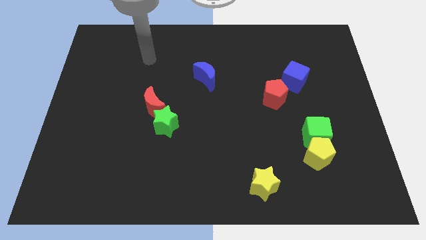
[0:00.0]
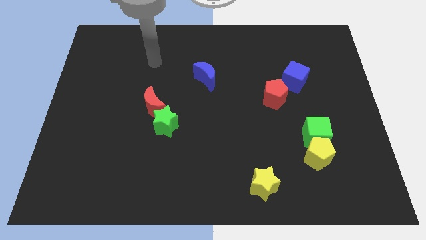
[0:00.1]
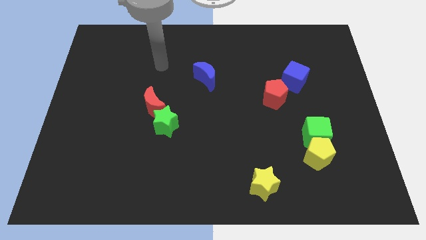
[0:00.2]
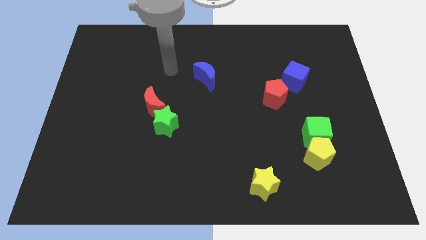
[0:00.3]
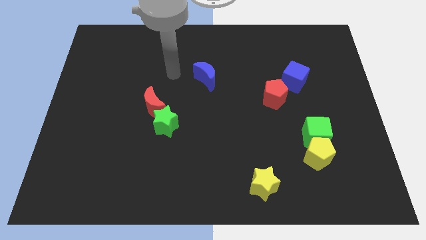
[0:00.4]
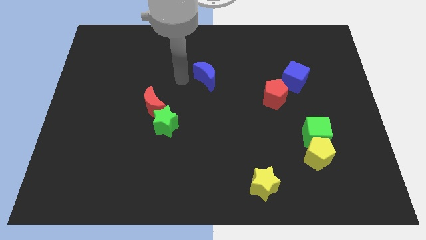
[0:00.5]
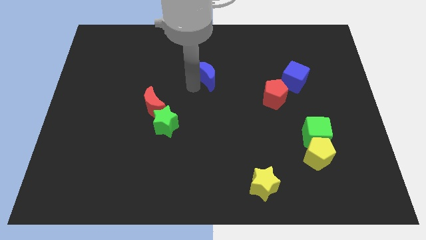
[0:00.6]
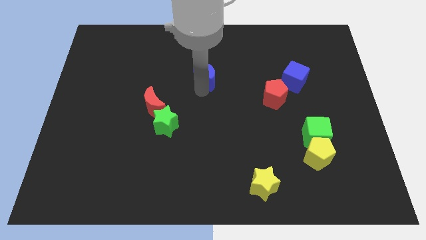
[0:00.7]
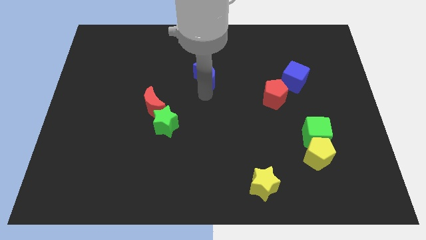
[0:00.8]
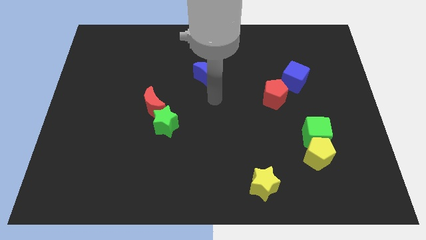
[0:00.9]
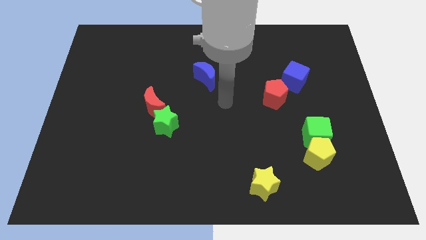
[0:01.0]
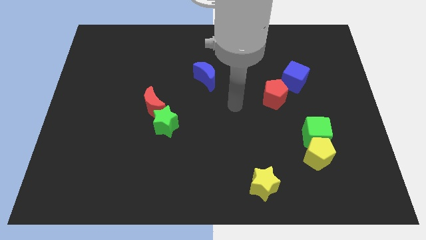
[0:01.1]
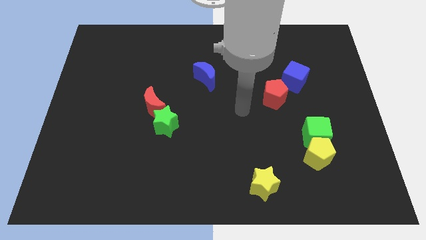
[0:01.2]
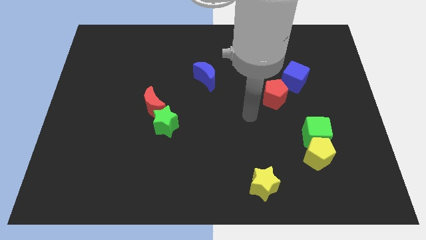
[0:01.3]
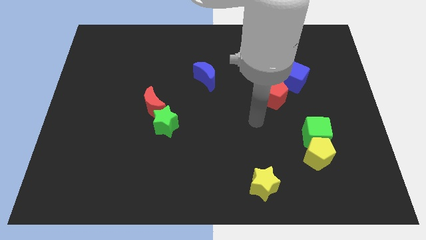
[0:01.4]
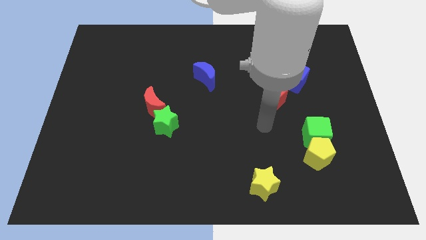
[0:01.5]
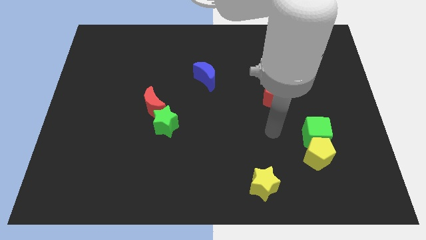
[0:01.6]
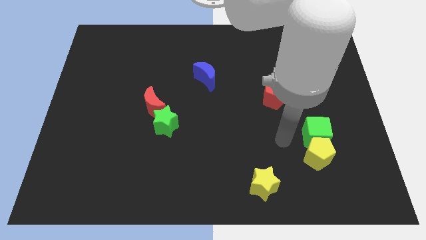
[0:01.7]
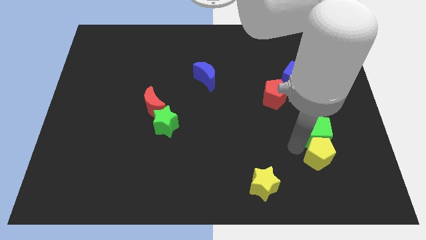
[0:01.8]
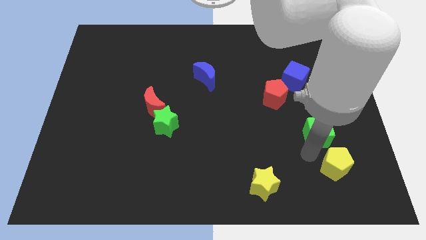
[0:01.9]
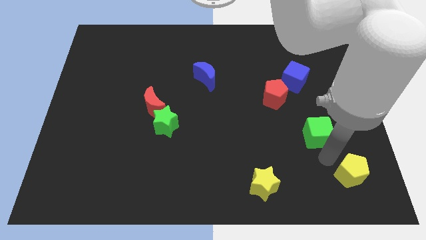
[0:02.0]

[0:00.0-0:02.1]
move the green cube away from the yellow pentagon

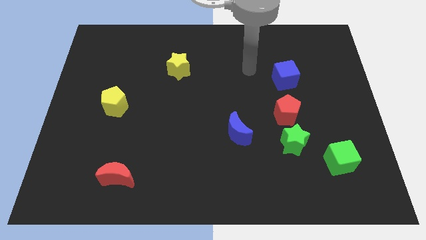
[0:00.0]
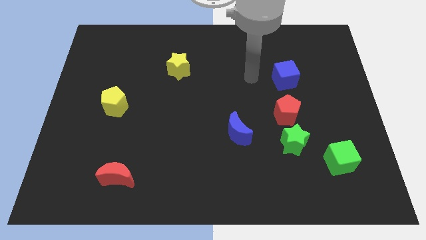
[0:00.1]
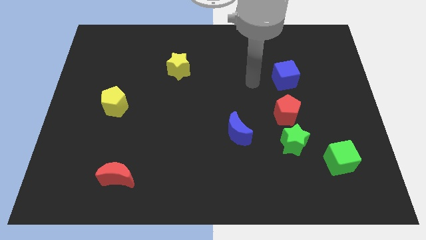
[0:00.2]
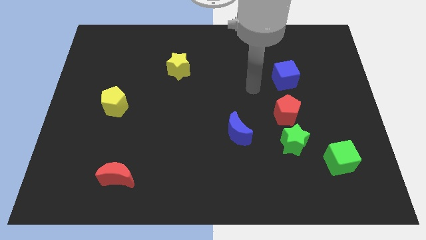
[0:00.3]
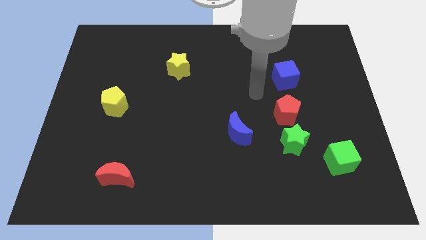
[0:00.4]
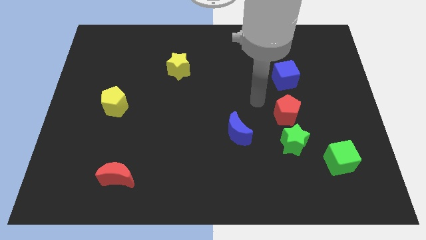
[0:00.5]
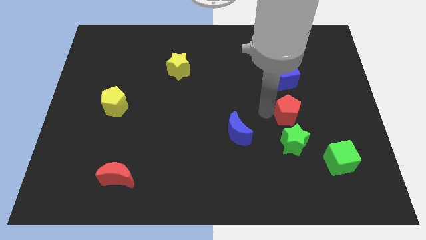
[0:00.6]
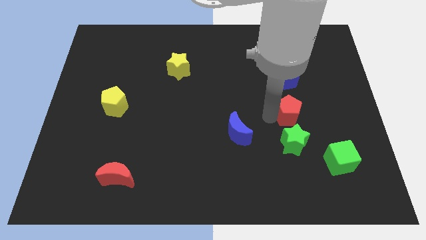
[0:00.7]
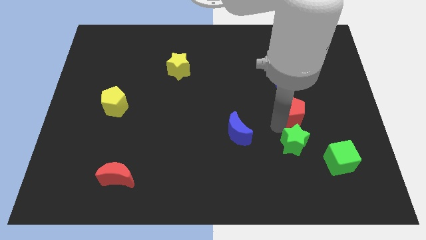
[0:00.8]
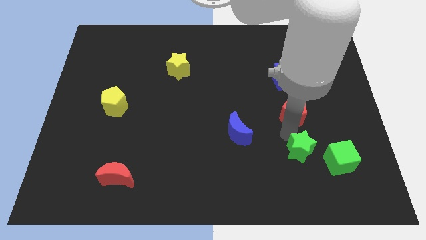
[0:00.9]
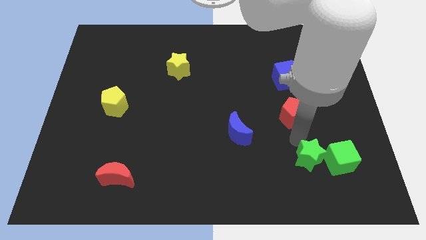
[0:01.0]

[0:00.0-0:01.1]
pull the red pentagon apart from the green star

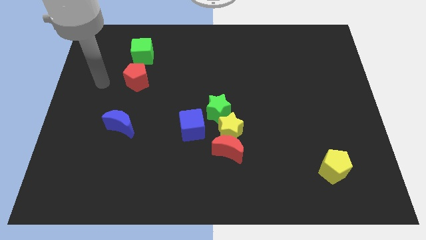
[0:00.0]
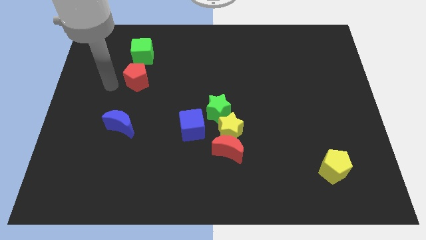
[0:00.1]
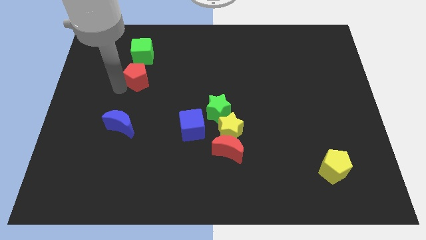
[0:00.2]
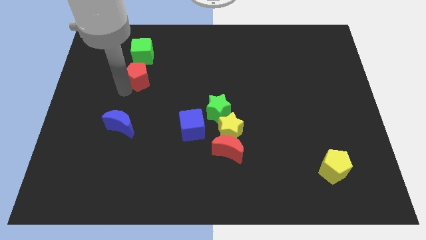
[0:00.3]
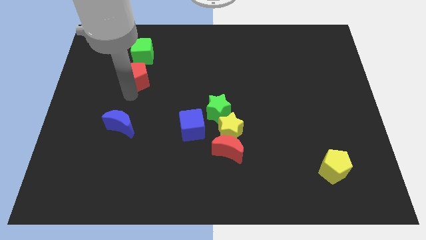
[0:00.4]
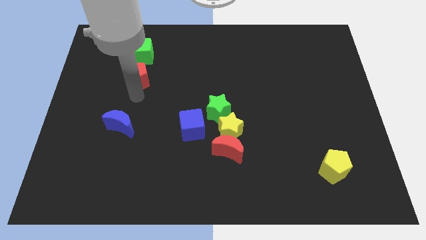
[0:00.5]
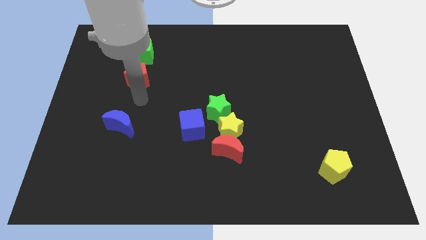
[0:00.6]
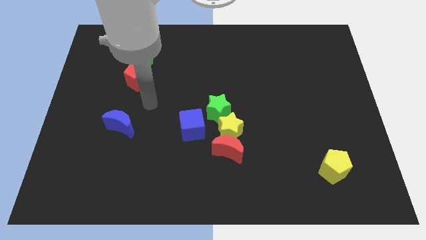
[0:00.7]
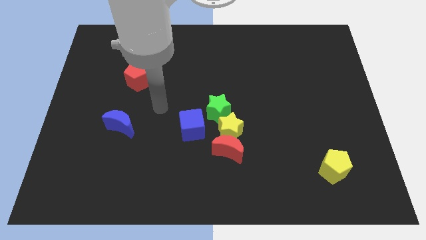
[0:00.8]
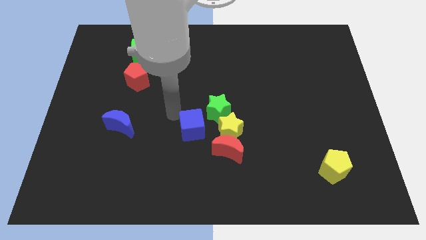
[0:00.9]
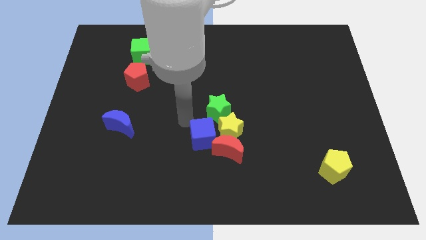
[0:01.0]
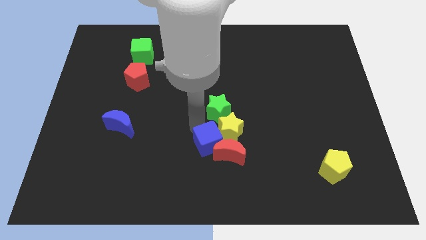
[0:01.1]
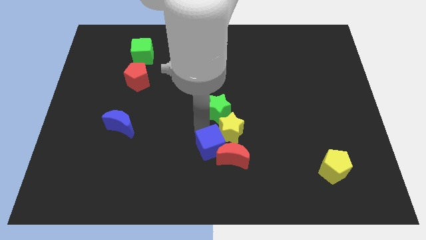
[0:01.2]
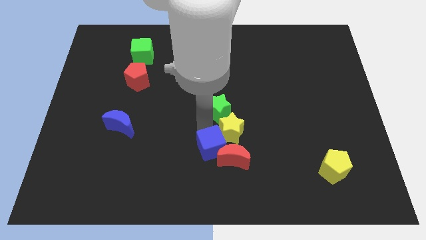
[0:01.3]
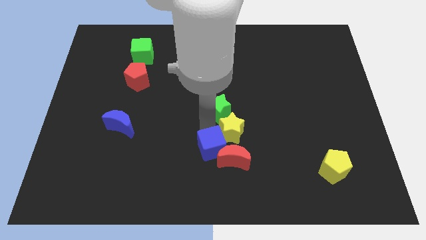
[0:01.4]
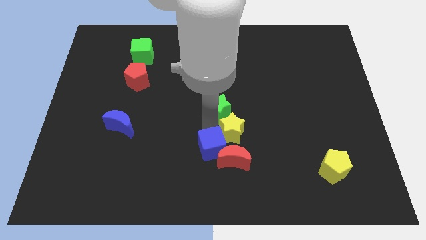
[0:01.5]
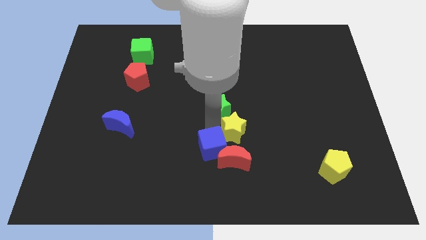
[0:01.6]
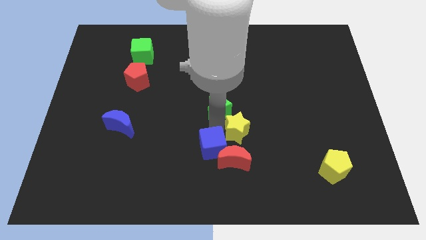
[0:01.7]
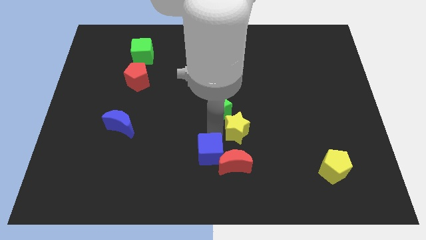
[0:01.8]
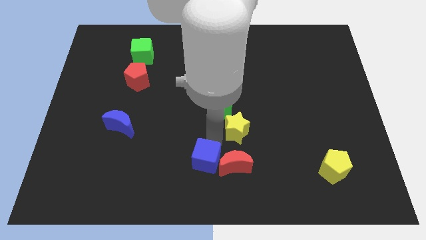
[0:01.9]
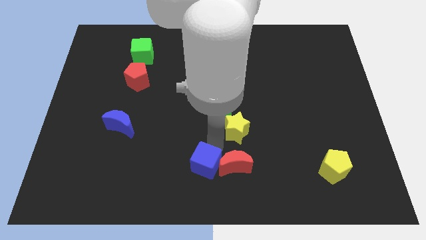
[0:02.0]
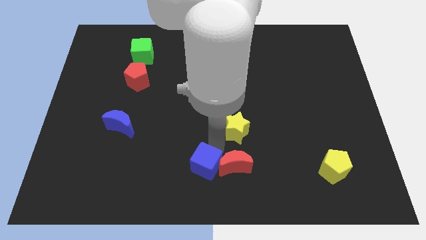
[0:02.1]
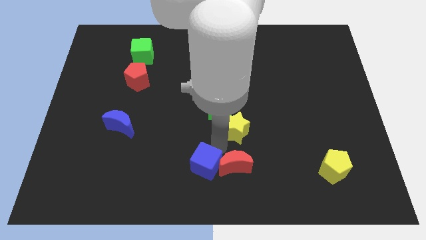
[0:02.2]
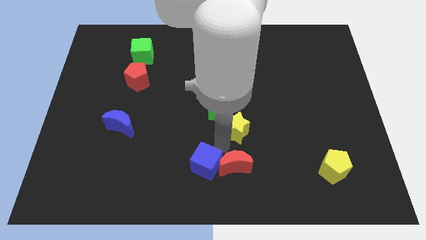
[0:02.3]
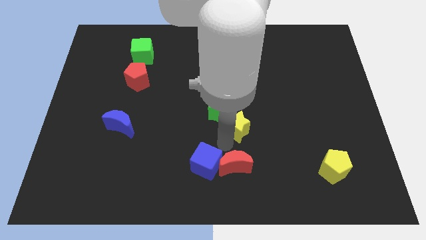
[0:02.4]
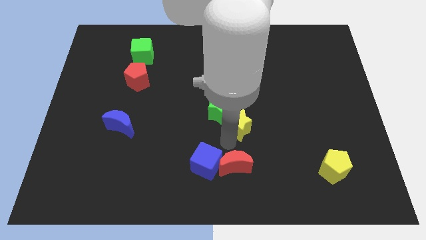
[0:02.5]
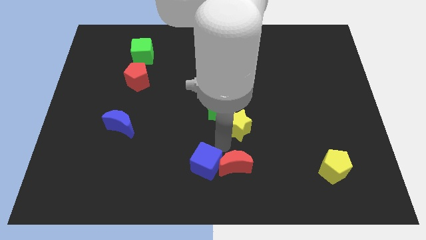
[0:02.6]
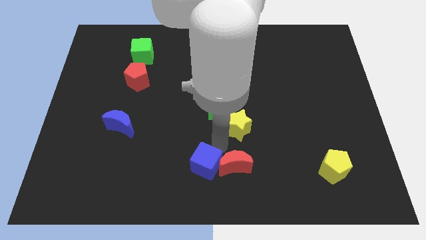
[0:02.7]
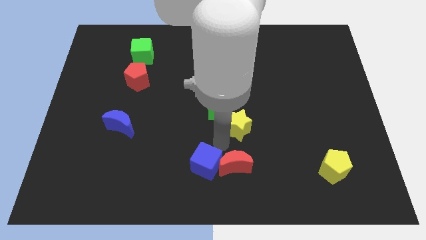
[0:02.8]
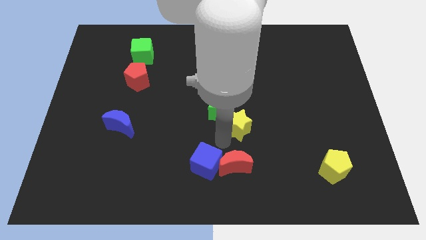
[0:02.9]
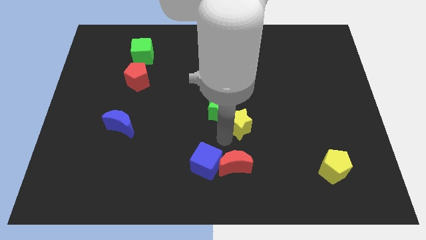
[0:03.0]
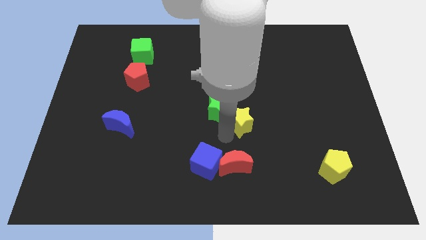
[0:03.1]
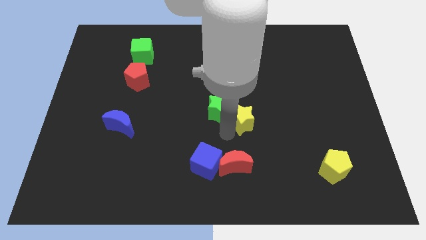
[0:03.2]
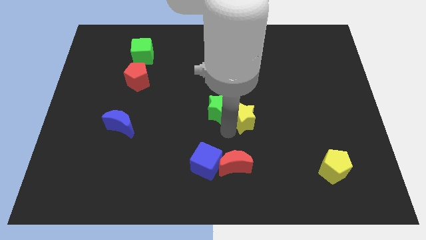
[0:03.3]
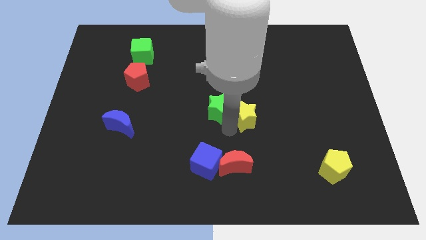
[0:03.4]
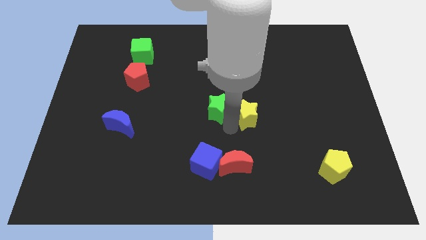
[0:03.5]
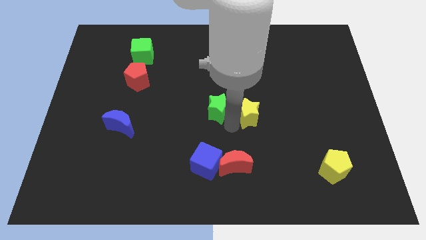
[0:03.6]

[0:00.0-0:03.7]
separate the yellow star from the red moon, green star, and blue cube

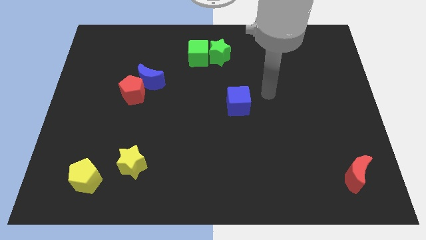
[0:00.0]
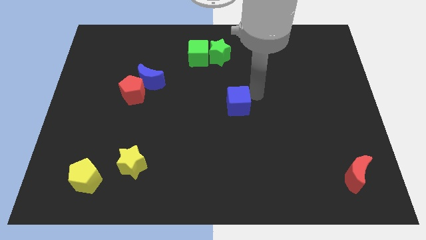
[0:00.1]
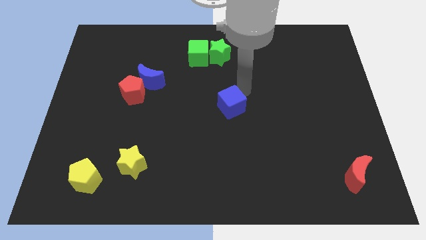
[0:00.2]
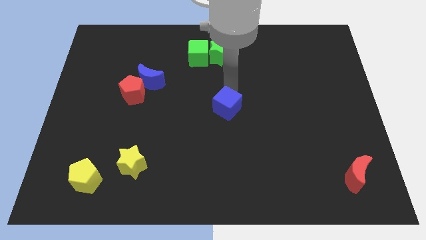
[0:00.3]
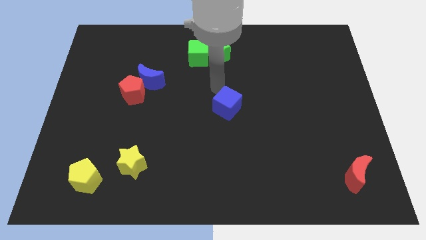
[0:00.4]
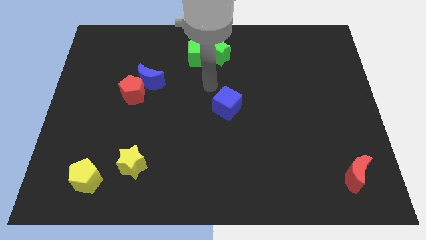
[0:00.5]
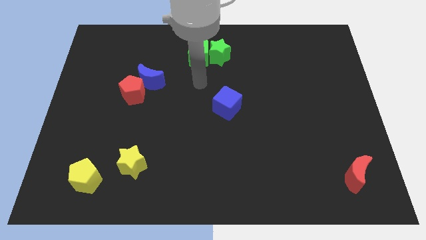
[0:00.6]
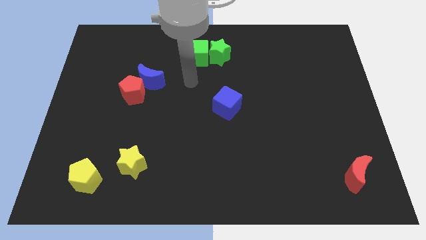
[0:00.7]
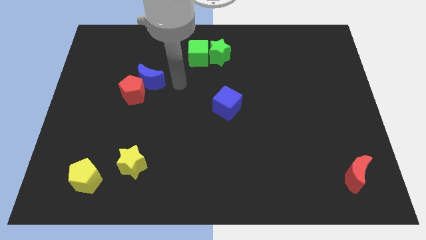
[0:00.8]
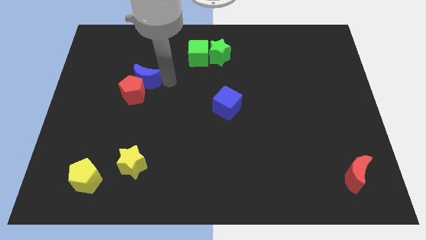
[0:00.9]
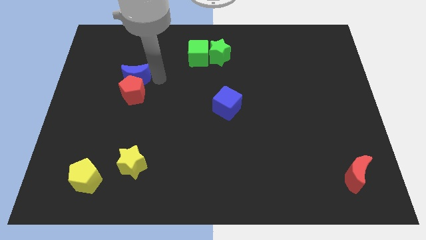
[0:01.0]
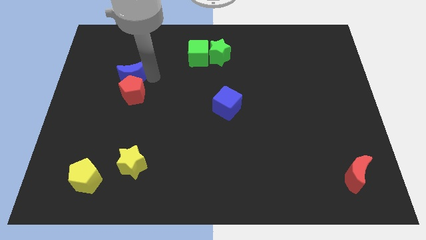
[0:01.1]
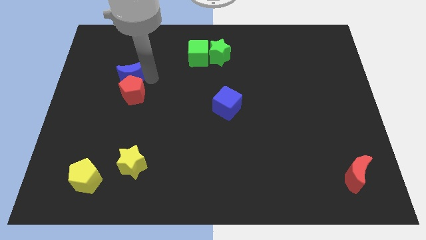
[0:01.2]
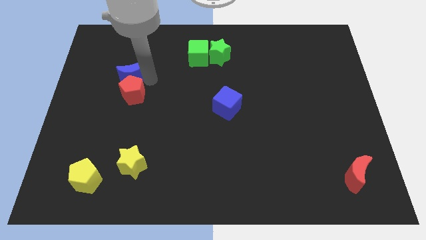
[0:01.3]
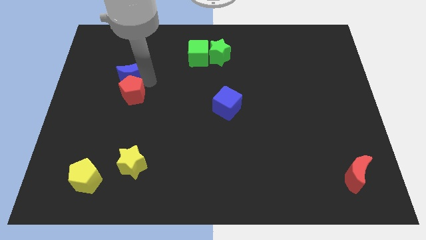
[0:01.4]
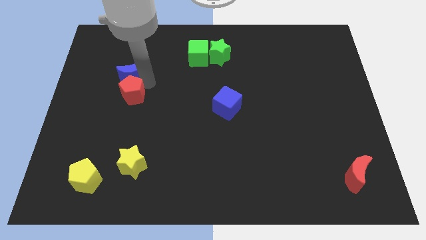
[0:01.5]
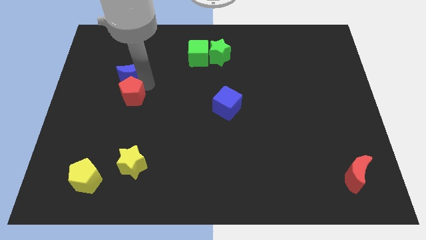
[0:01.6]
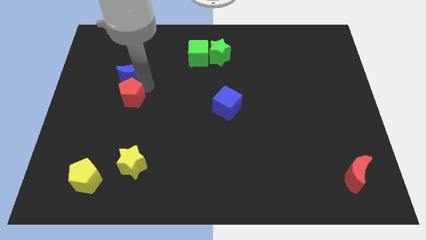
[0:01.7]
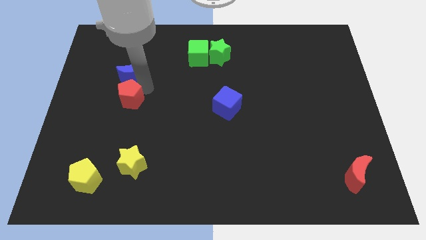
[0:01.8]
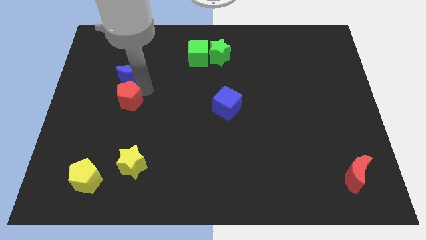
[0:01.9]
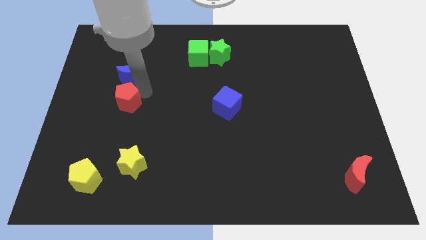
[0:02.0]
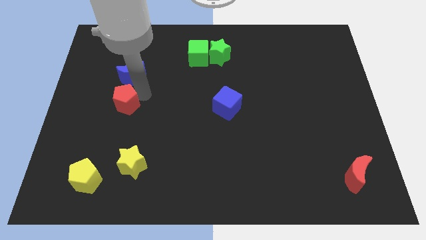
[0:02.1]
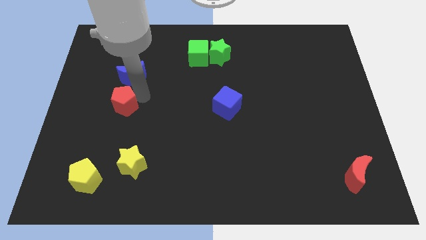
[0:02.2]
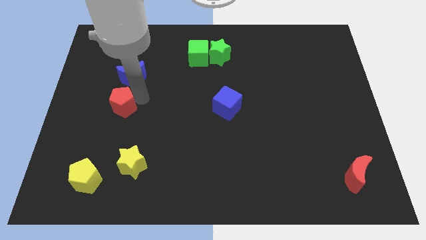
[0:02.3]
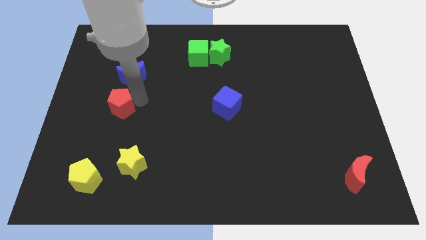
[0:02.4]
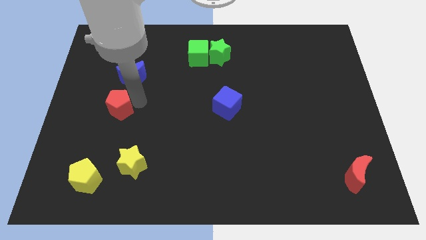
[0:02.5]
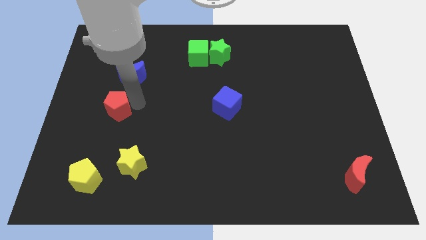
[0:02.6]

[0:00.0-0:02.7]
pull the red pentagon apart from the blue moon
